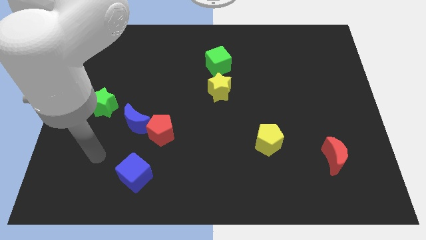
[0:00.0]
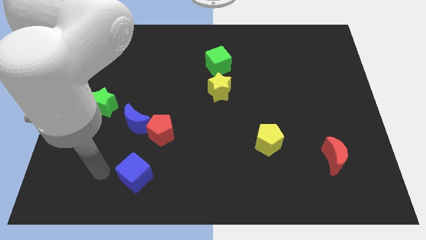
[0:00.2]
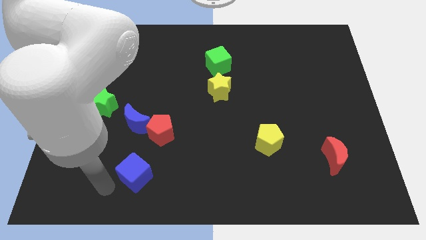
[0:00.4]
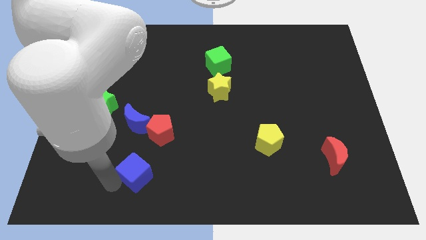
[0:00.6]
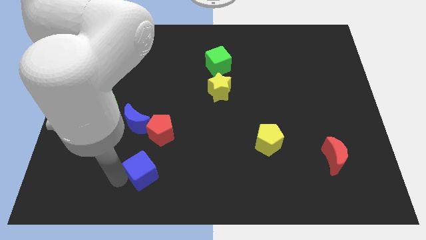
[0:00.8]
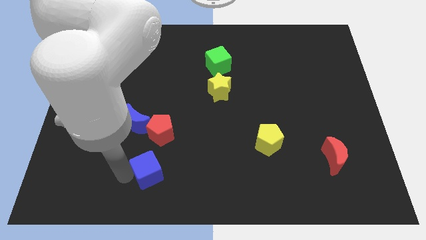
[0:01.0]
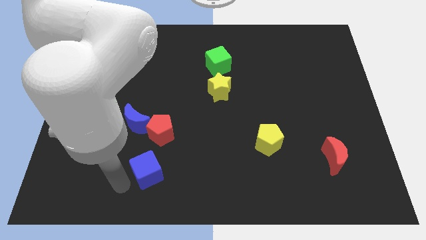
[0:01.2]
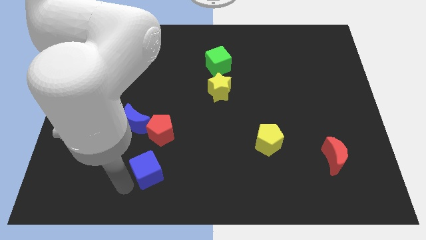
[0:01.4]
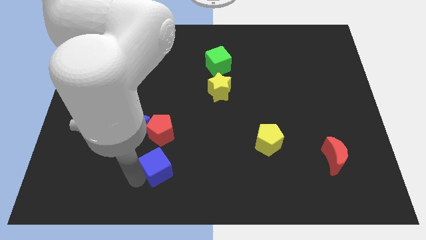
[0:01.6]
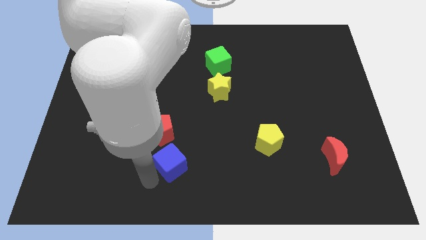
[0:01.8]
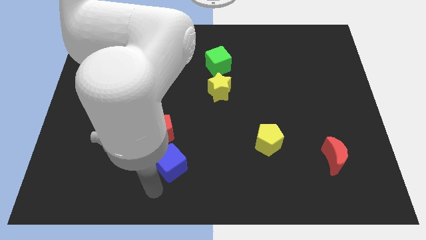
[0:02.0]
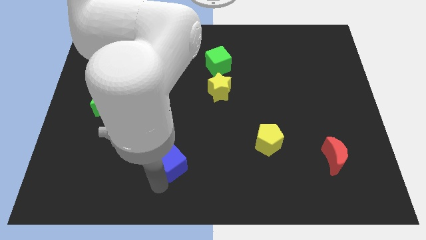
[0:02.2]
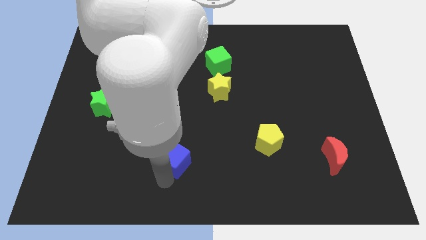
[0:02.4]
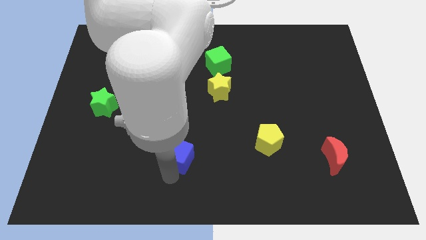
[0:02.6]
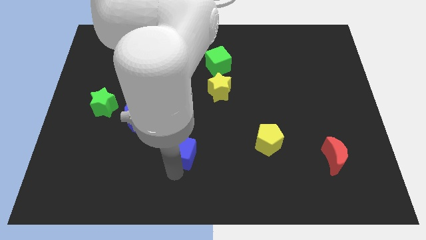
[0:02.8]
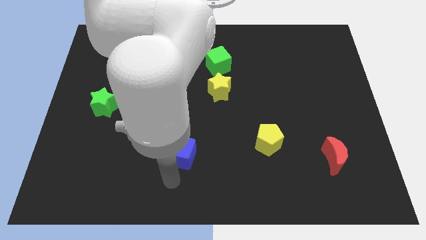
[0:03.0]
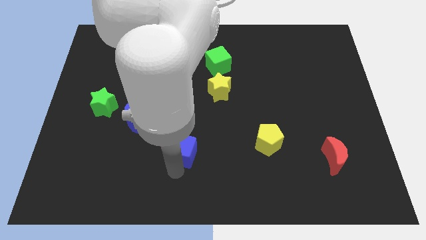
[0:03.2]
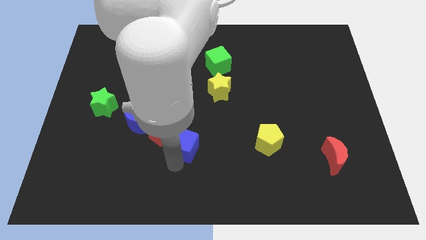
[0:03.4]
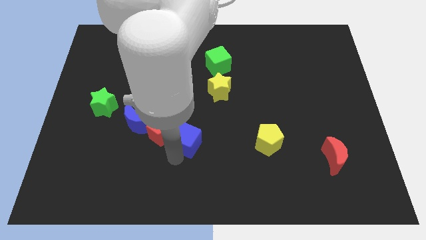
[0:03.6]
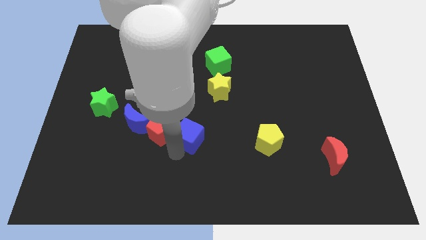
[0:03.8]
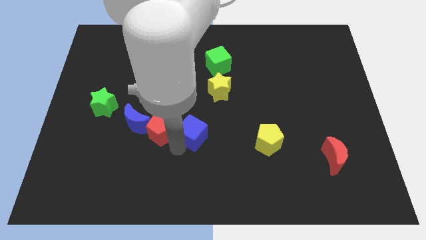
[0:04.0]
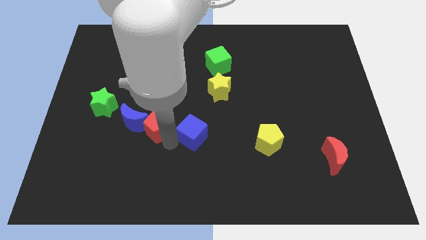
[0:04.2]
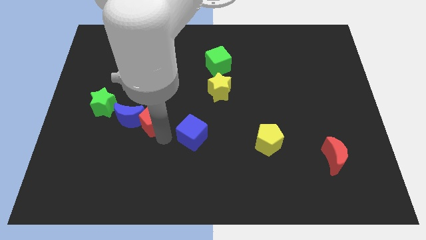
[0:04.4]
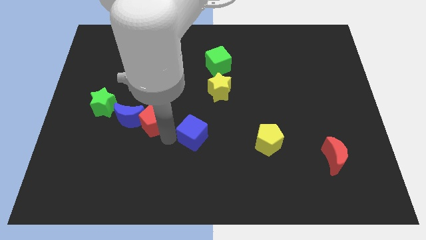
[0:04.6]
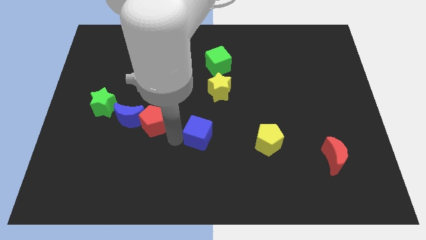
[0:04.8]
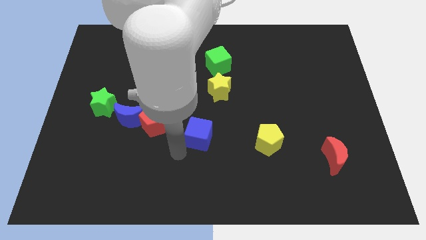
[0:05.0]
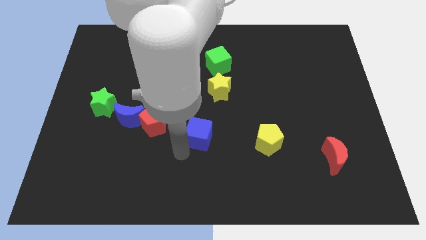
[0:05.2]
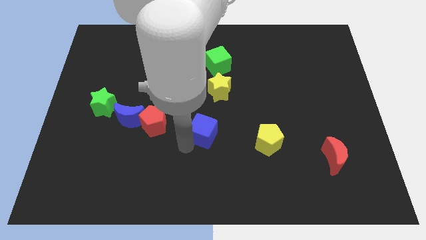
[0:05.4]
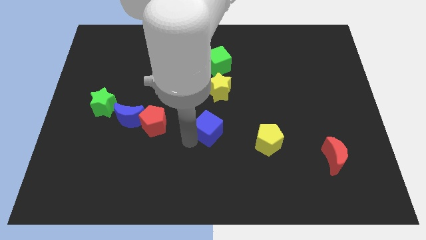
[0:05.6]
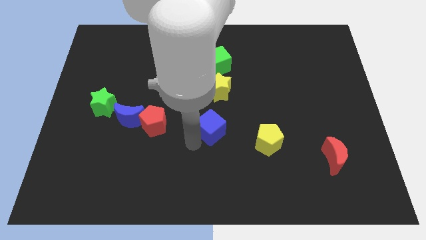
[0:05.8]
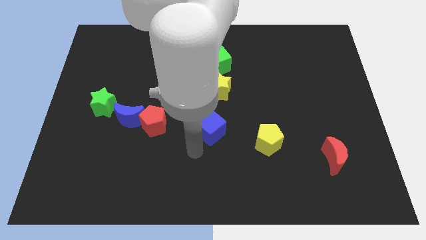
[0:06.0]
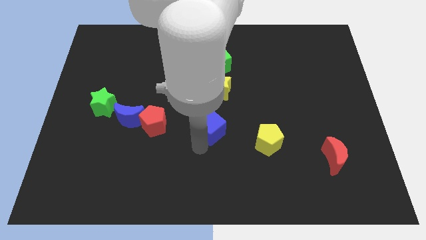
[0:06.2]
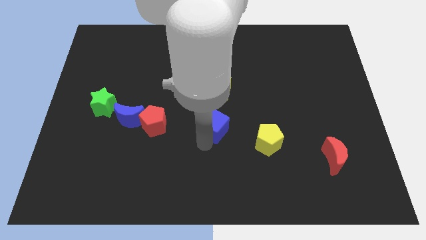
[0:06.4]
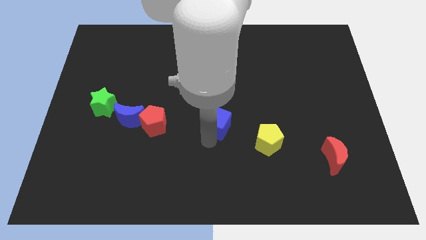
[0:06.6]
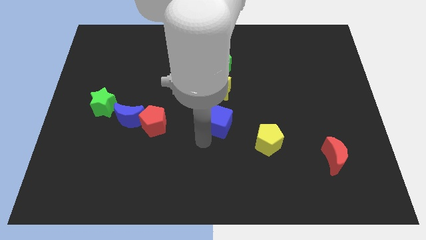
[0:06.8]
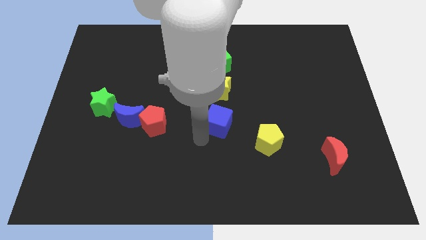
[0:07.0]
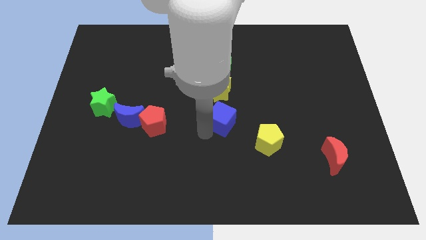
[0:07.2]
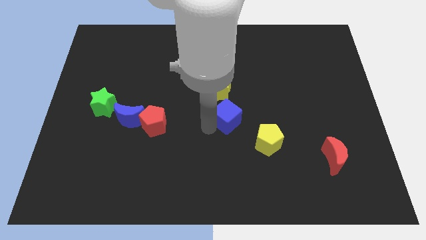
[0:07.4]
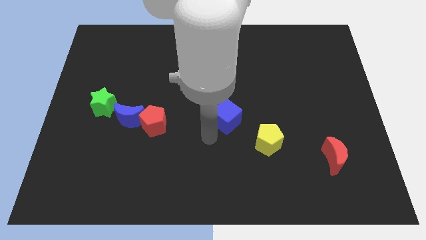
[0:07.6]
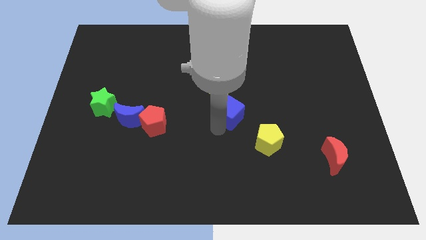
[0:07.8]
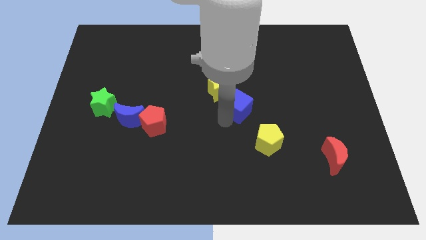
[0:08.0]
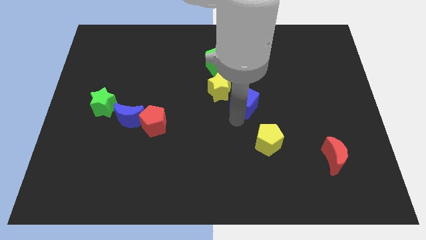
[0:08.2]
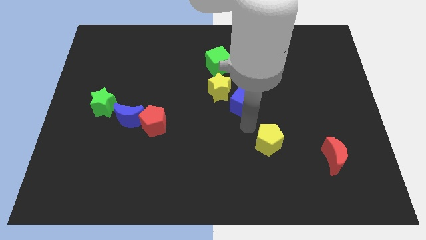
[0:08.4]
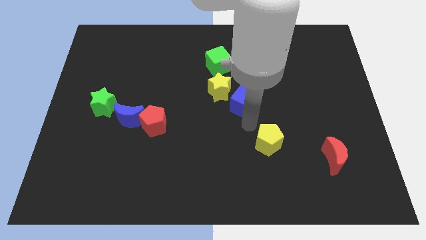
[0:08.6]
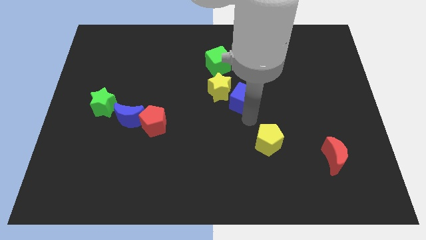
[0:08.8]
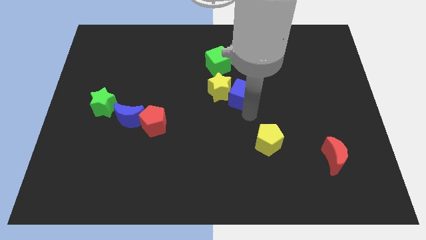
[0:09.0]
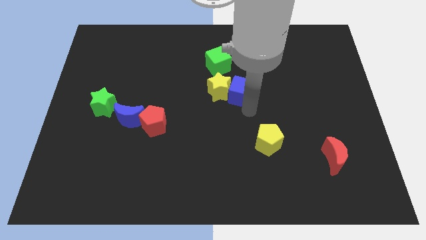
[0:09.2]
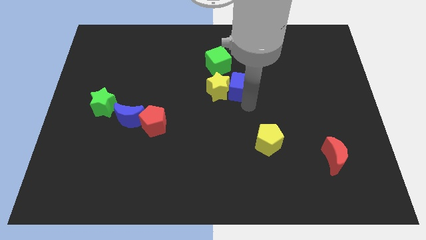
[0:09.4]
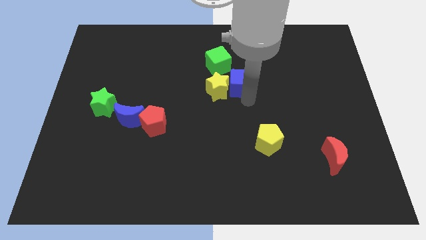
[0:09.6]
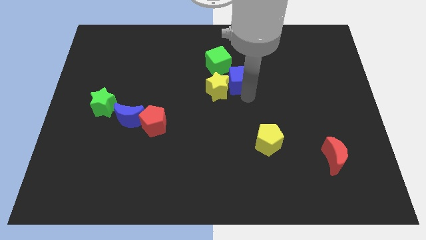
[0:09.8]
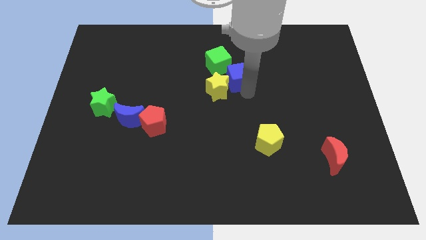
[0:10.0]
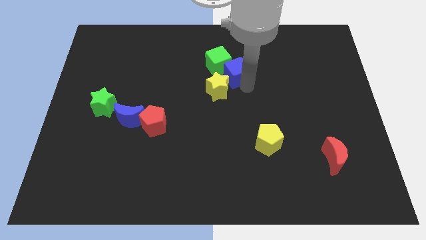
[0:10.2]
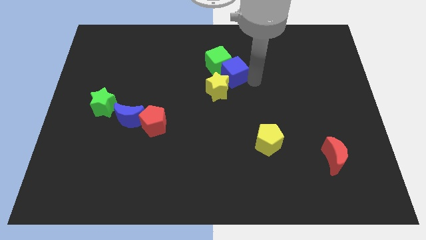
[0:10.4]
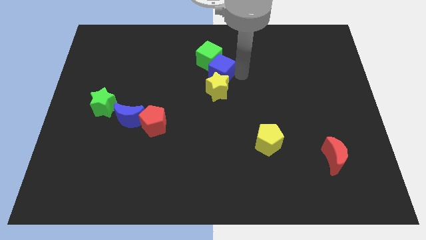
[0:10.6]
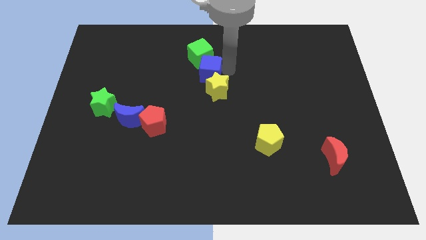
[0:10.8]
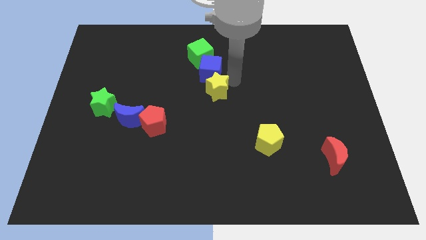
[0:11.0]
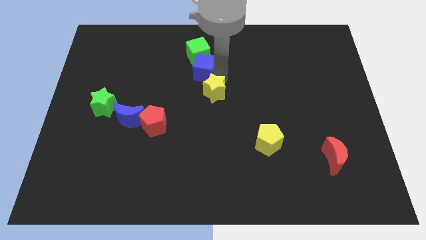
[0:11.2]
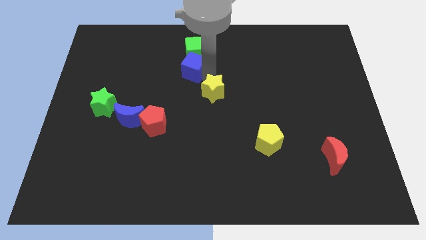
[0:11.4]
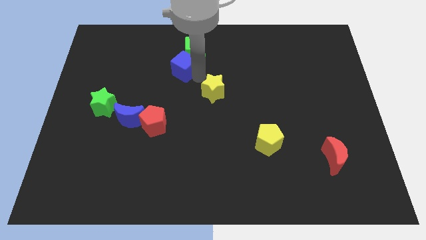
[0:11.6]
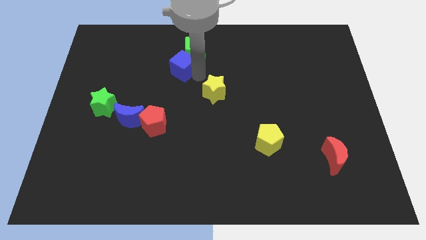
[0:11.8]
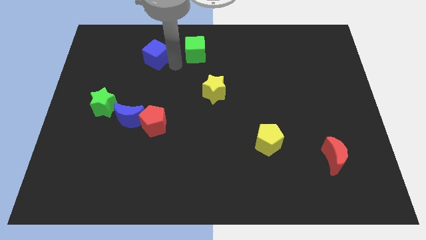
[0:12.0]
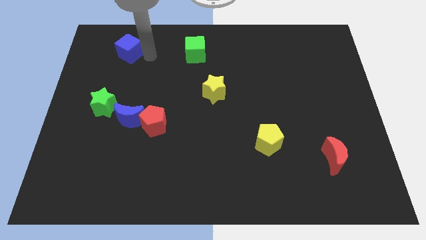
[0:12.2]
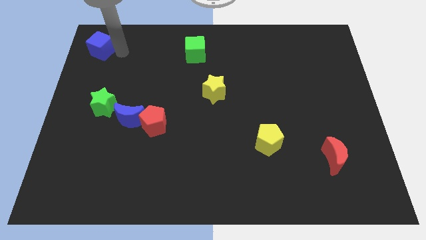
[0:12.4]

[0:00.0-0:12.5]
slide the blue cube to the top left corner

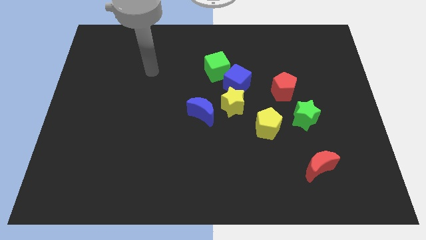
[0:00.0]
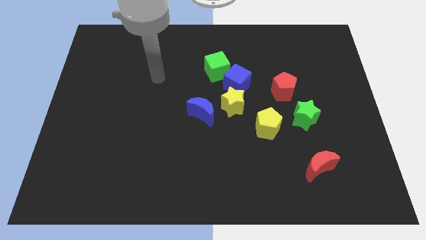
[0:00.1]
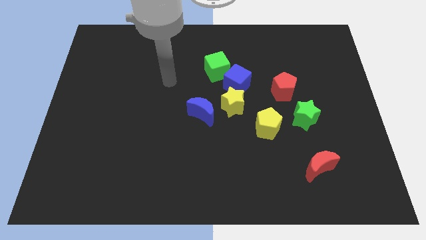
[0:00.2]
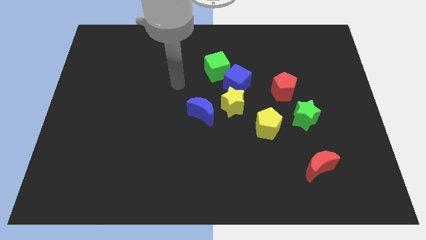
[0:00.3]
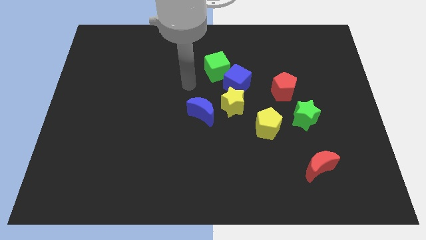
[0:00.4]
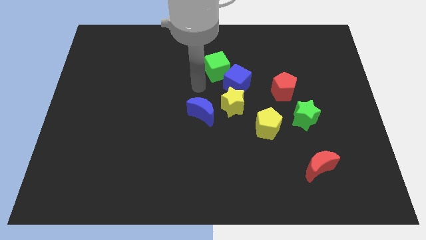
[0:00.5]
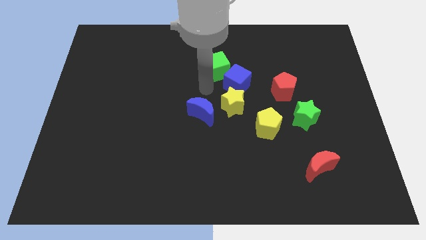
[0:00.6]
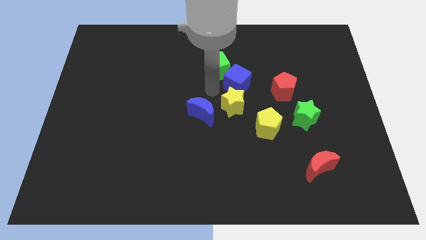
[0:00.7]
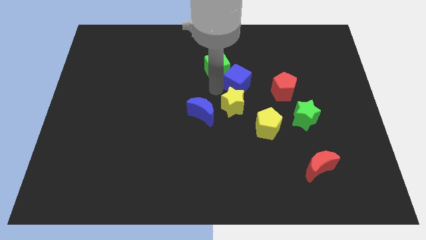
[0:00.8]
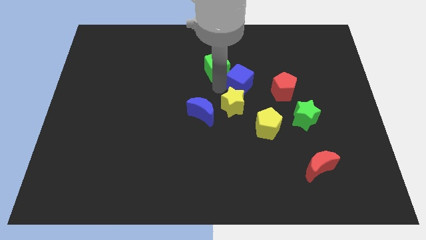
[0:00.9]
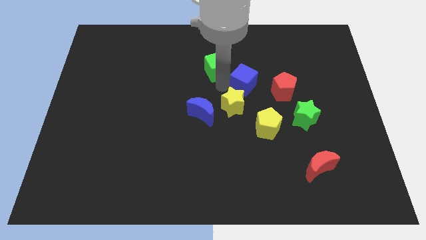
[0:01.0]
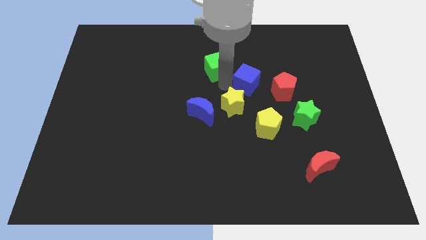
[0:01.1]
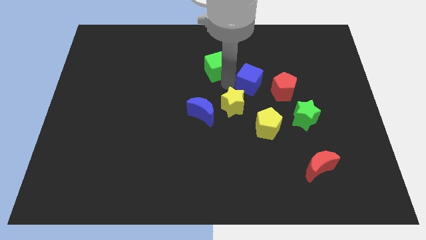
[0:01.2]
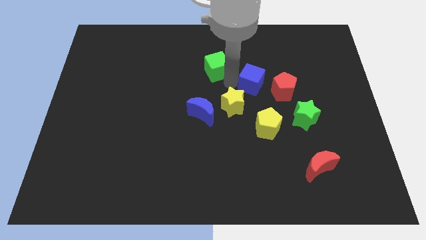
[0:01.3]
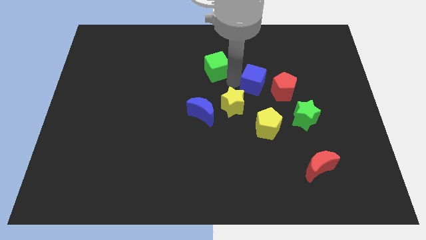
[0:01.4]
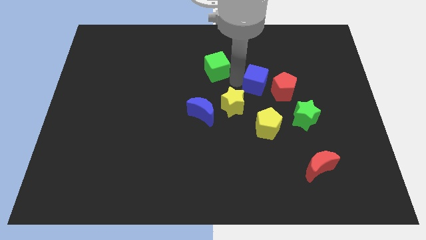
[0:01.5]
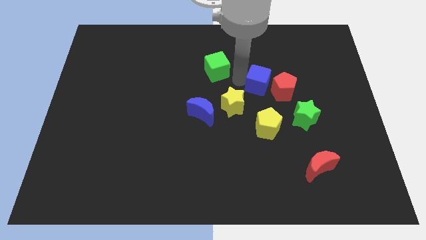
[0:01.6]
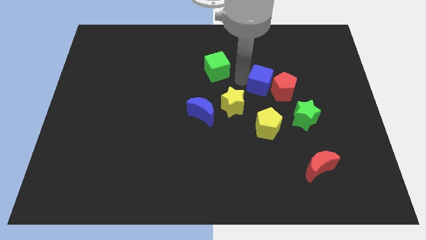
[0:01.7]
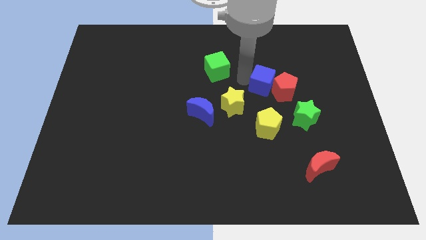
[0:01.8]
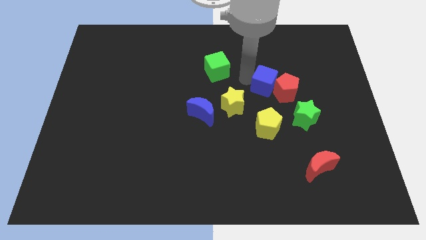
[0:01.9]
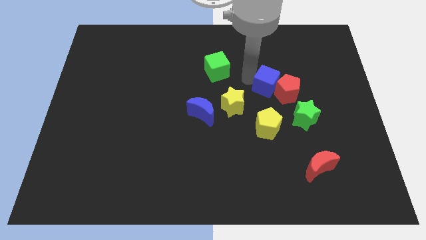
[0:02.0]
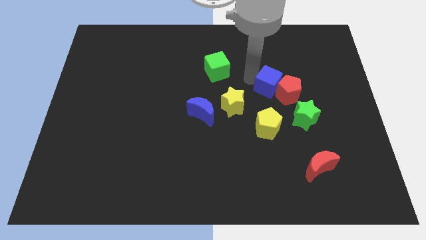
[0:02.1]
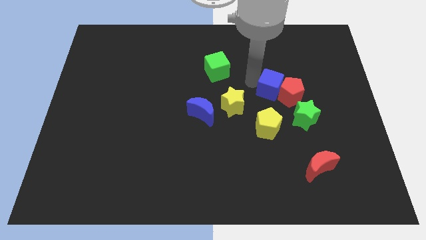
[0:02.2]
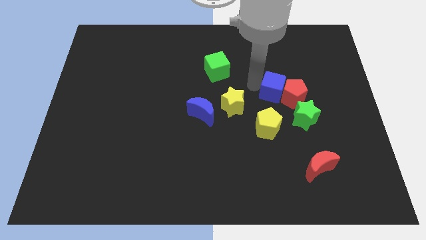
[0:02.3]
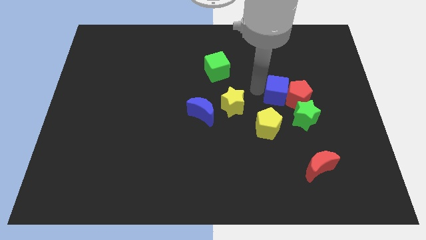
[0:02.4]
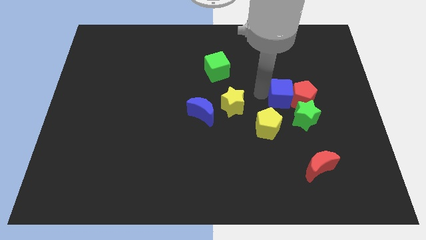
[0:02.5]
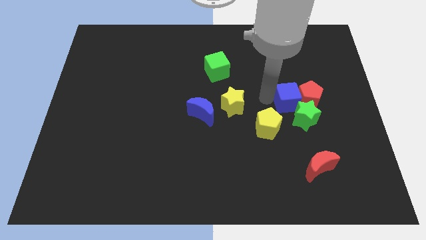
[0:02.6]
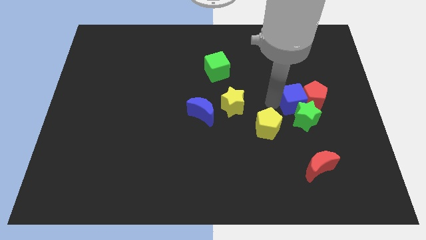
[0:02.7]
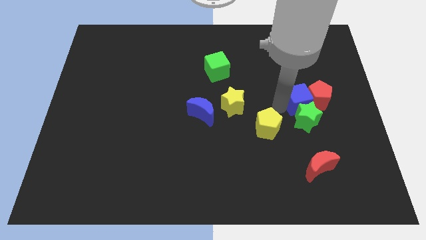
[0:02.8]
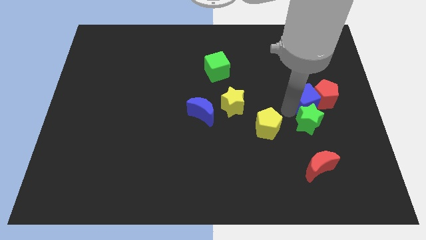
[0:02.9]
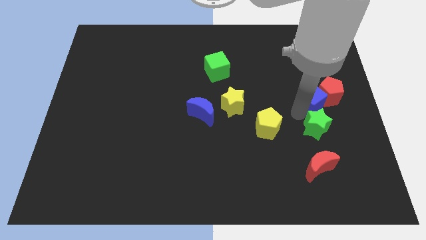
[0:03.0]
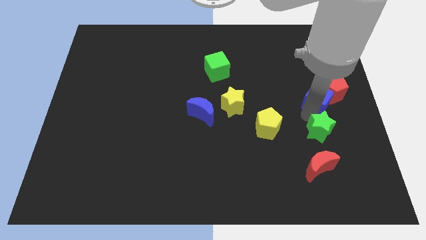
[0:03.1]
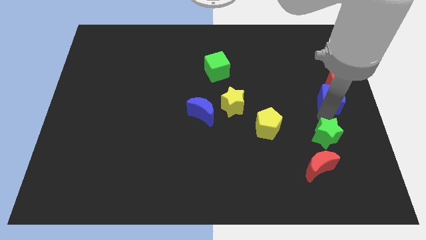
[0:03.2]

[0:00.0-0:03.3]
push the blue cube to the right side
